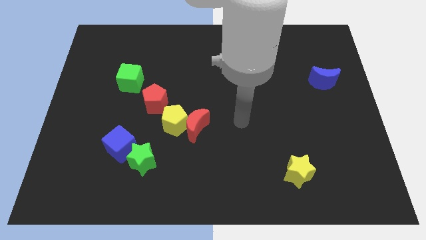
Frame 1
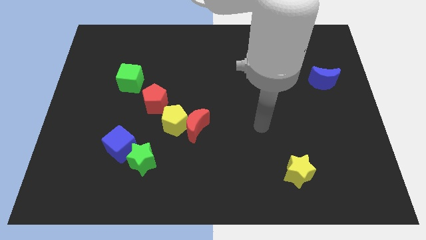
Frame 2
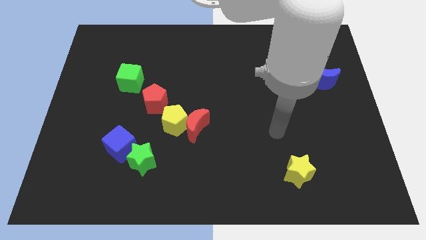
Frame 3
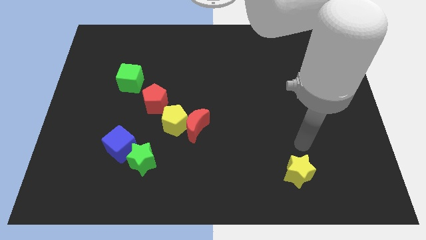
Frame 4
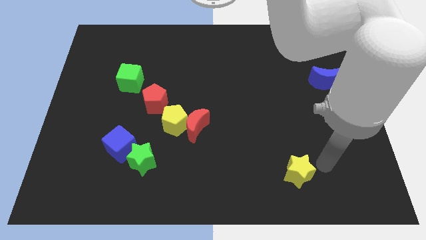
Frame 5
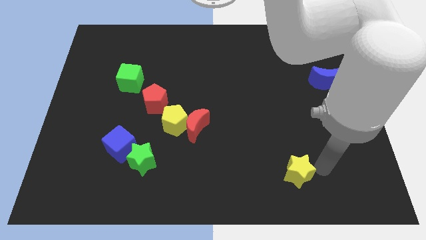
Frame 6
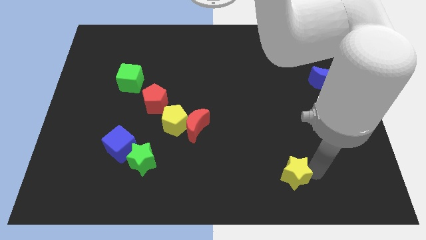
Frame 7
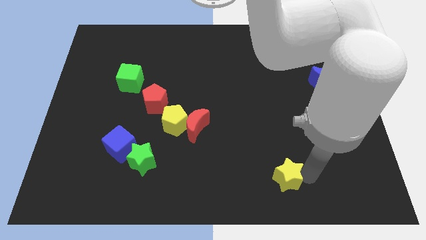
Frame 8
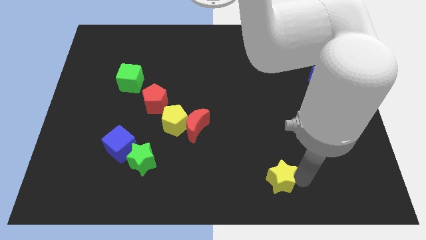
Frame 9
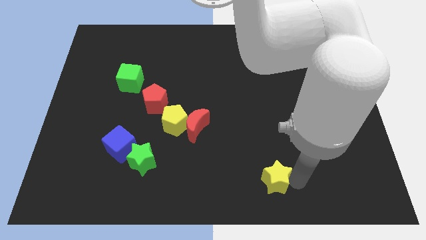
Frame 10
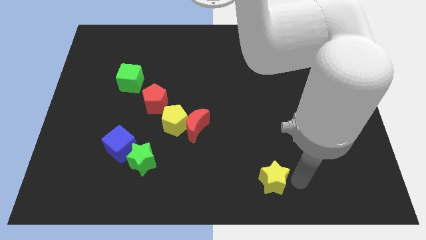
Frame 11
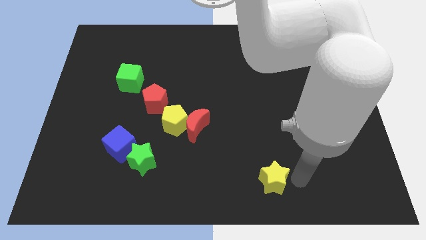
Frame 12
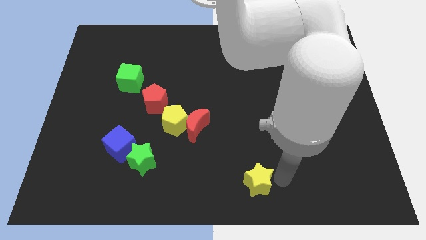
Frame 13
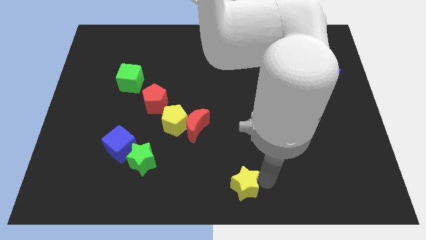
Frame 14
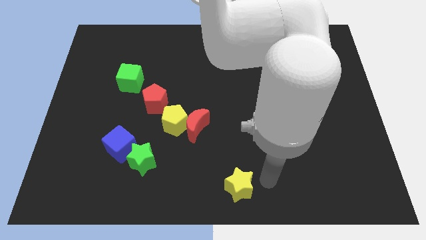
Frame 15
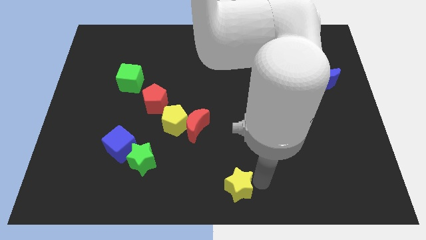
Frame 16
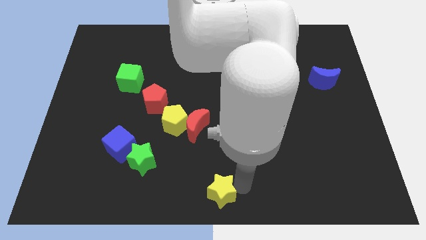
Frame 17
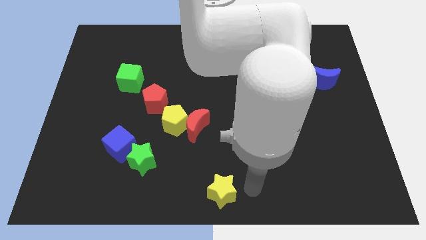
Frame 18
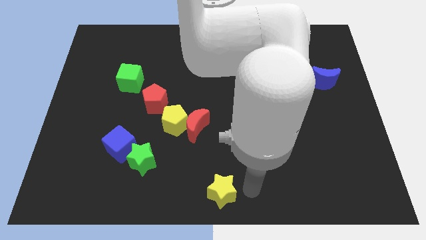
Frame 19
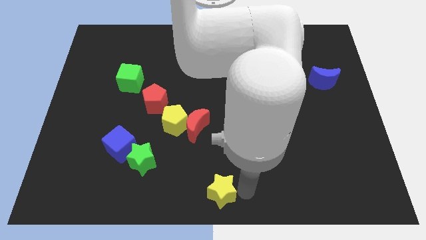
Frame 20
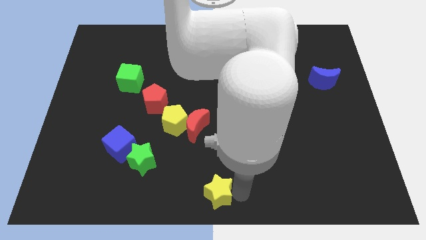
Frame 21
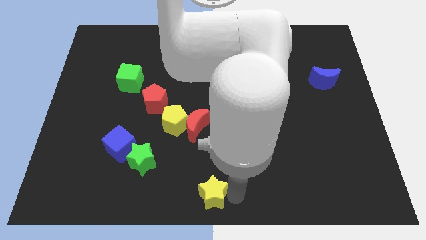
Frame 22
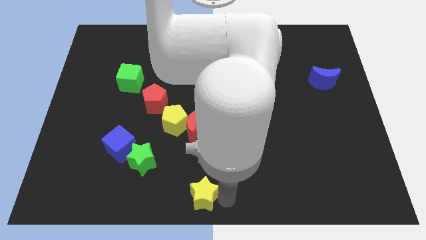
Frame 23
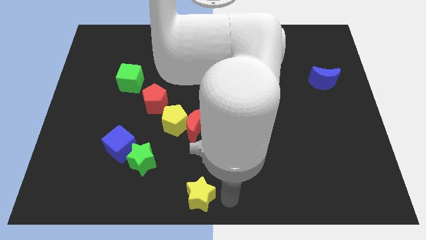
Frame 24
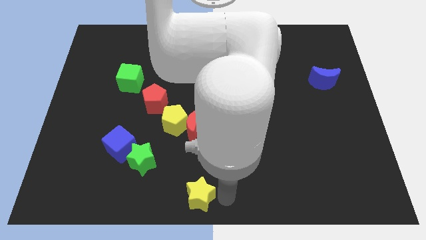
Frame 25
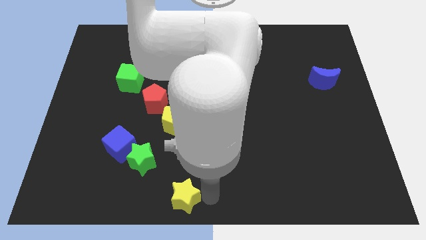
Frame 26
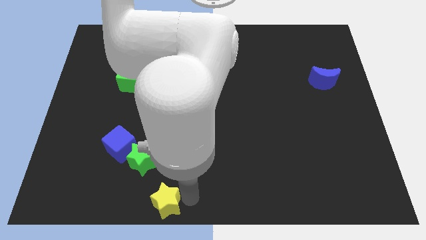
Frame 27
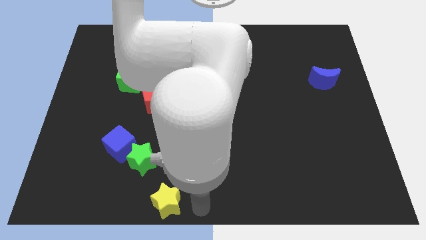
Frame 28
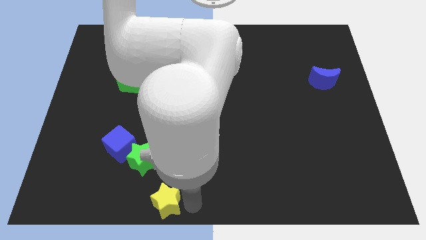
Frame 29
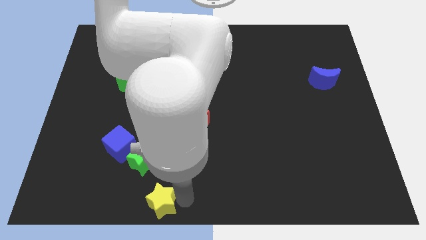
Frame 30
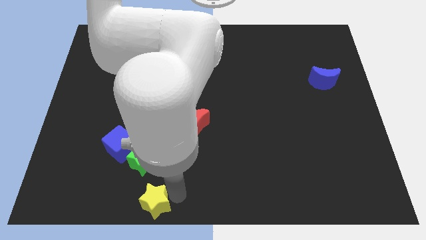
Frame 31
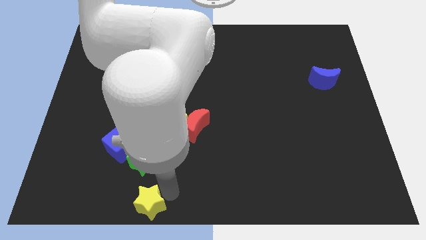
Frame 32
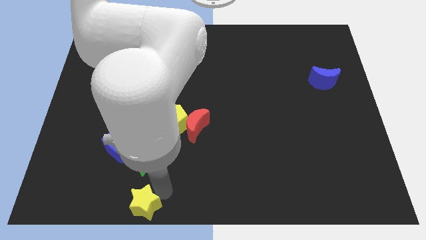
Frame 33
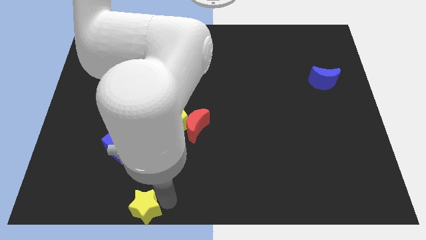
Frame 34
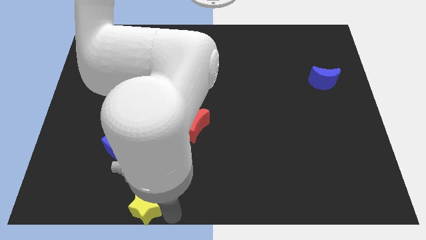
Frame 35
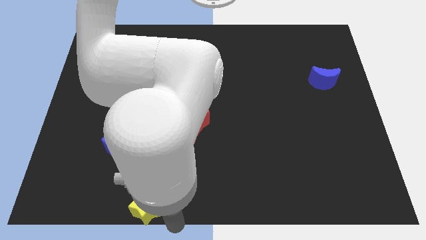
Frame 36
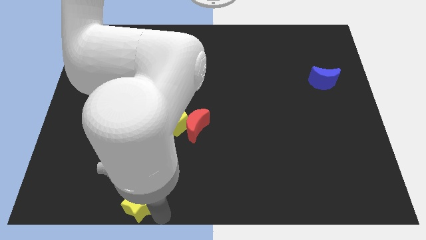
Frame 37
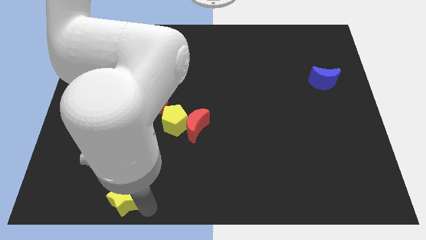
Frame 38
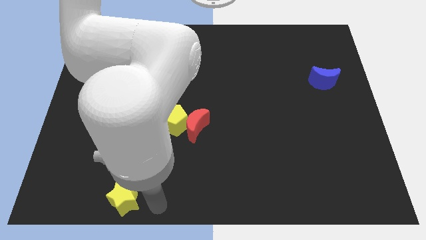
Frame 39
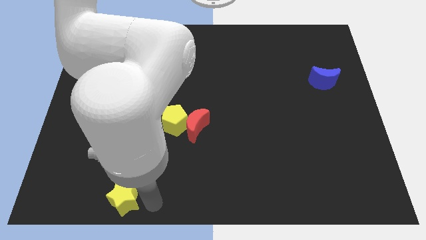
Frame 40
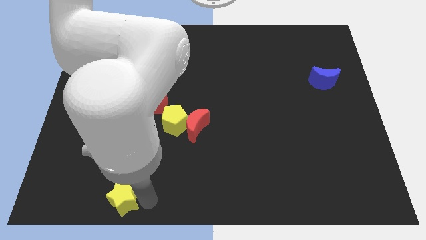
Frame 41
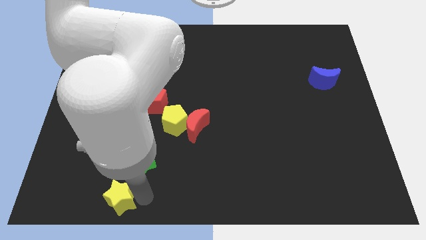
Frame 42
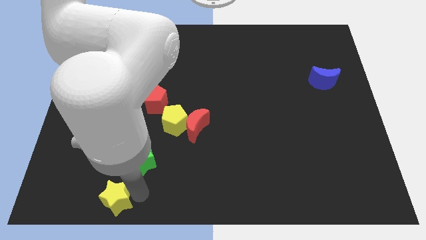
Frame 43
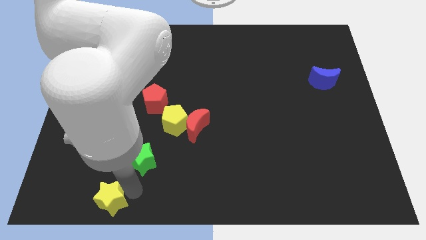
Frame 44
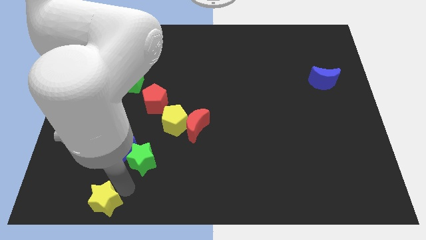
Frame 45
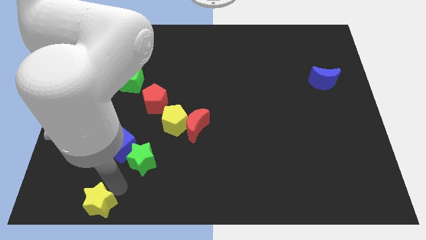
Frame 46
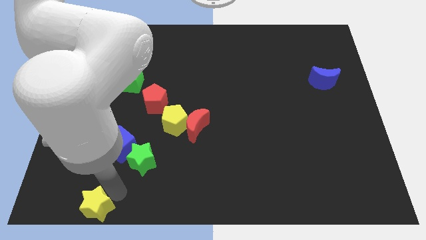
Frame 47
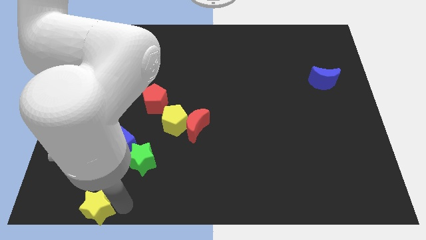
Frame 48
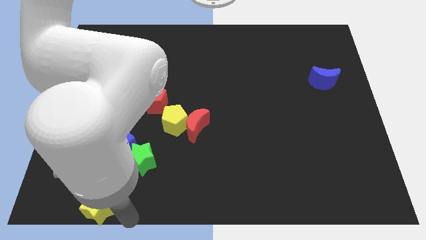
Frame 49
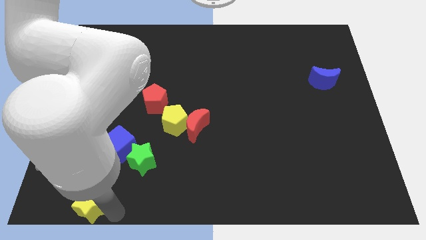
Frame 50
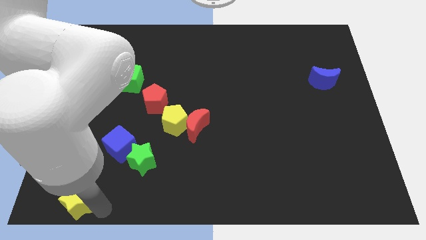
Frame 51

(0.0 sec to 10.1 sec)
put the yellow star to the lower left corner

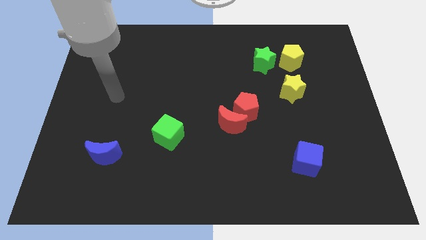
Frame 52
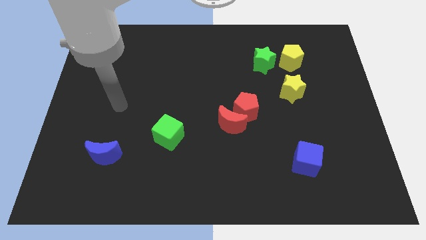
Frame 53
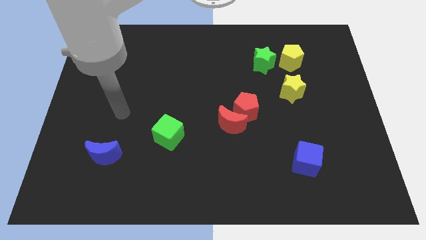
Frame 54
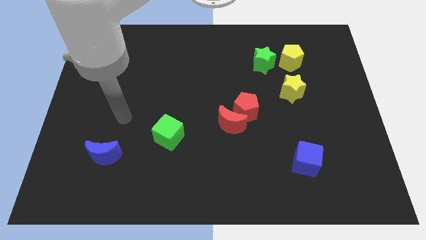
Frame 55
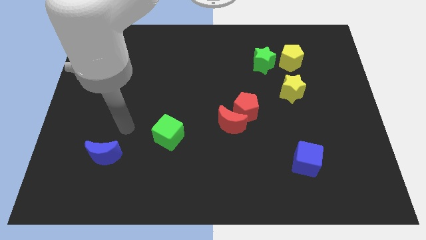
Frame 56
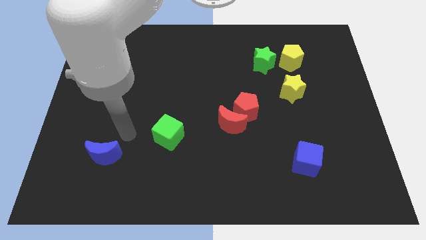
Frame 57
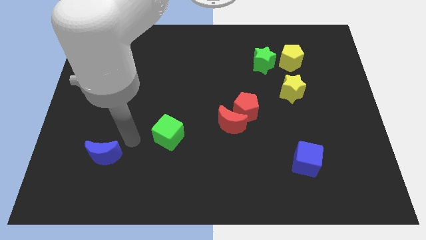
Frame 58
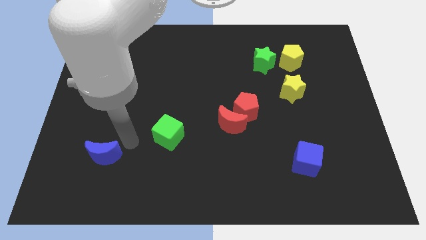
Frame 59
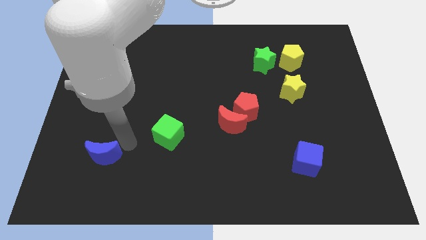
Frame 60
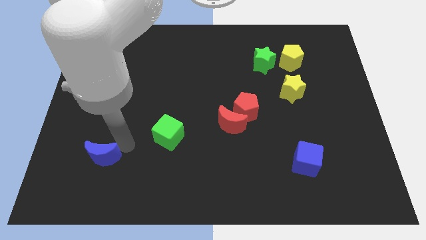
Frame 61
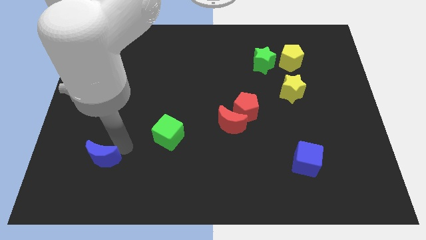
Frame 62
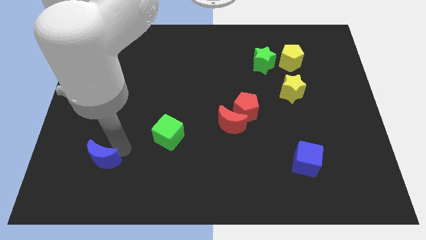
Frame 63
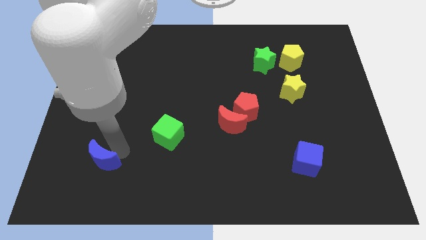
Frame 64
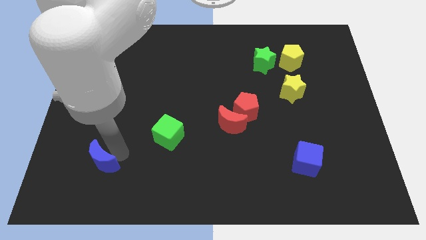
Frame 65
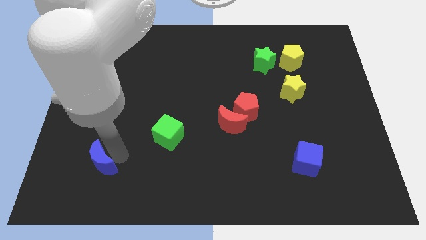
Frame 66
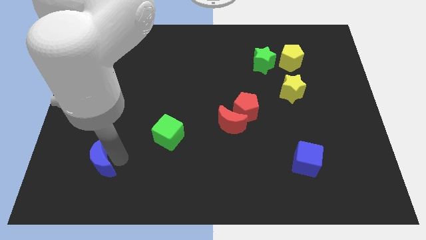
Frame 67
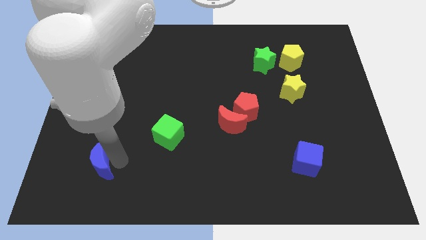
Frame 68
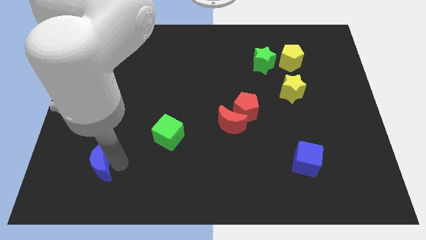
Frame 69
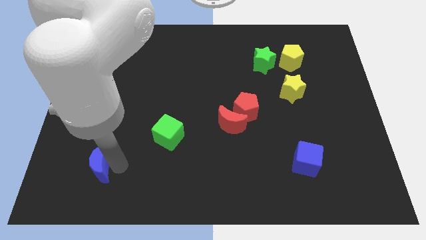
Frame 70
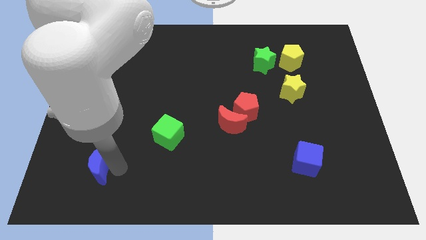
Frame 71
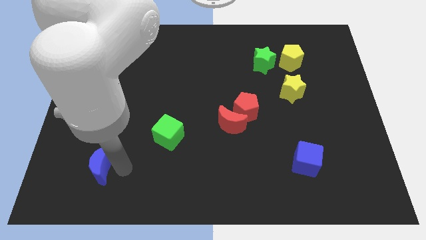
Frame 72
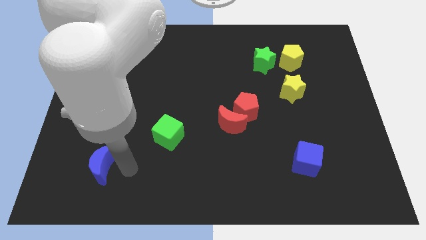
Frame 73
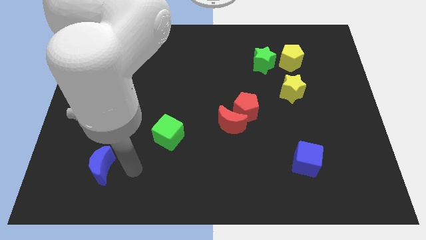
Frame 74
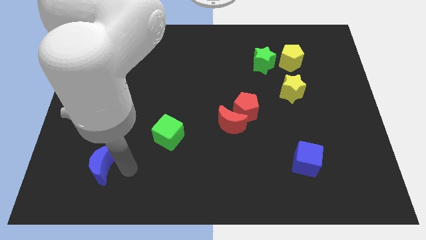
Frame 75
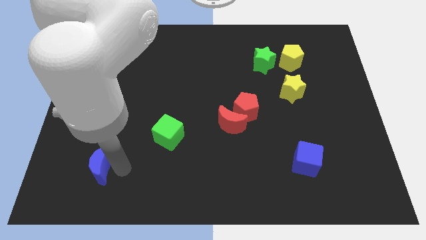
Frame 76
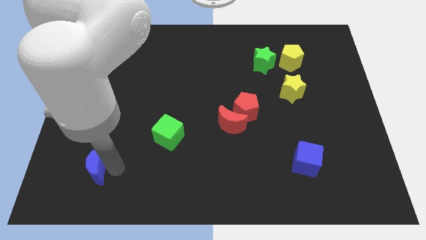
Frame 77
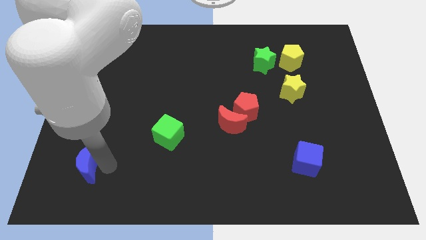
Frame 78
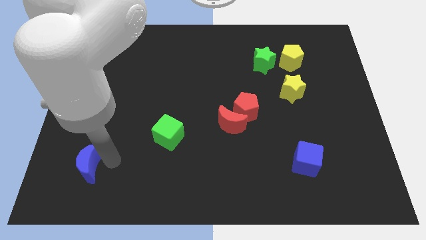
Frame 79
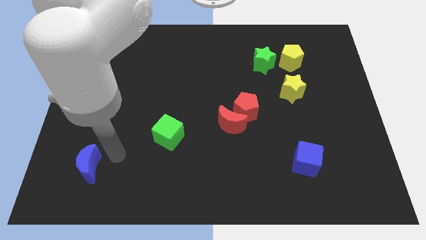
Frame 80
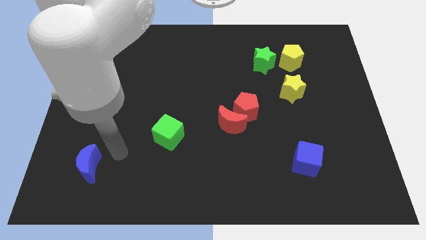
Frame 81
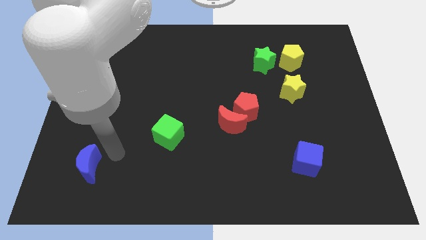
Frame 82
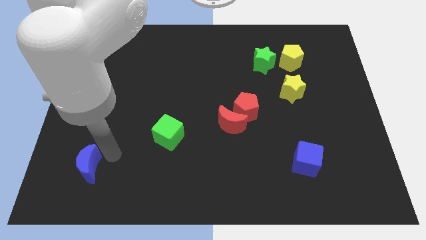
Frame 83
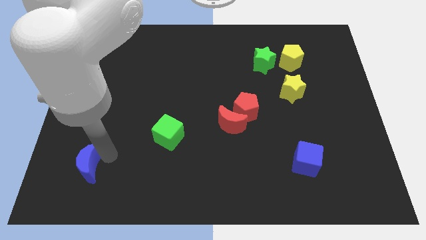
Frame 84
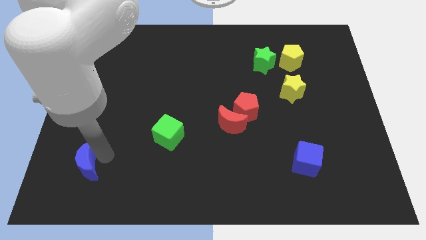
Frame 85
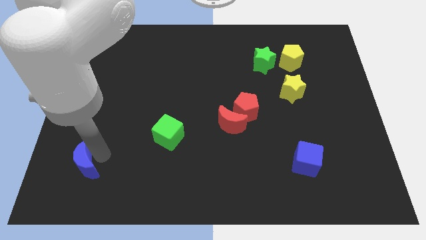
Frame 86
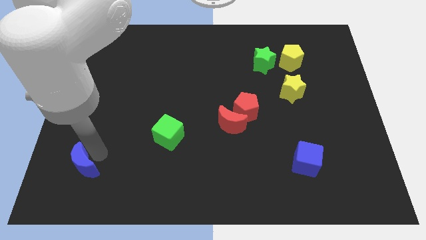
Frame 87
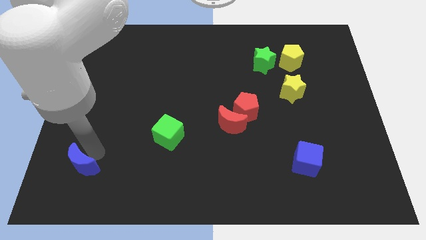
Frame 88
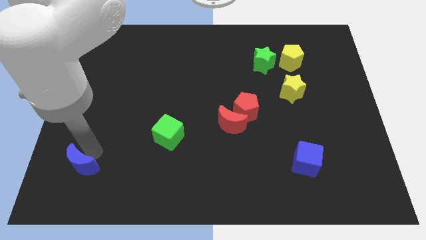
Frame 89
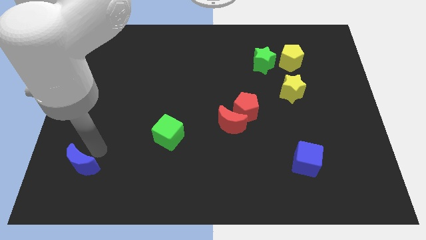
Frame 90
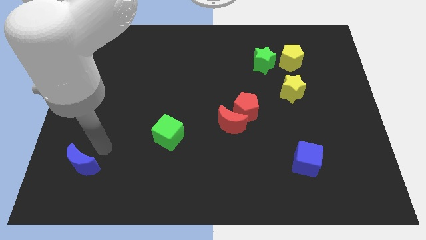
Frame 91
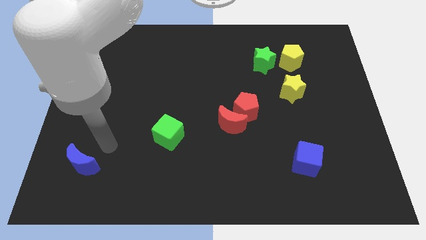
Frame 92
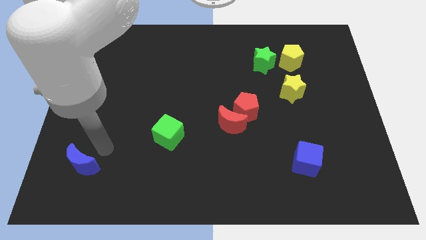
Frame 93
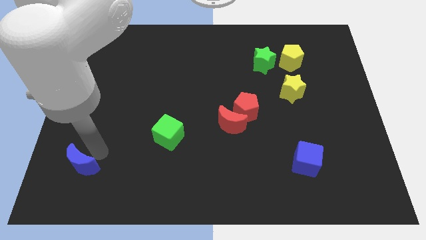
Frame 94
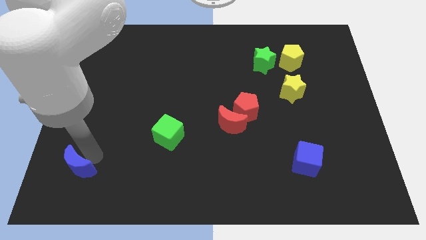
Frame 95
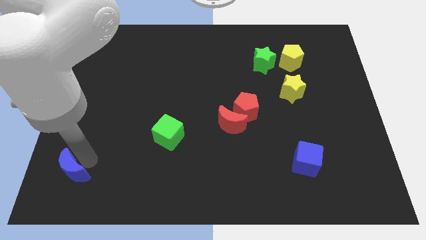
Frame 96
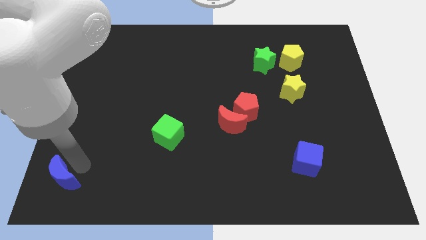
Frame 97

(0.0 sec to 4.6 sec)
put the blue moon to the bottom left of the board
